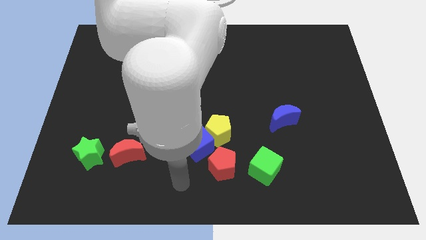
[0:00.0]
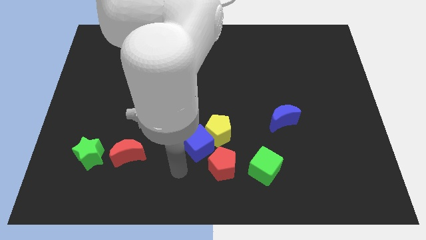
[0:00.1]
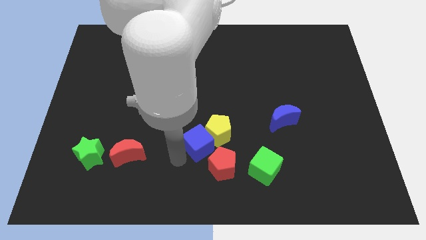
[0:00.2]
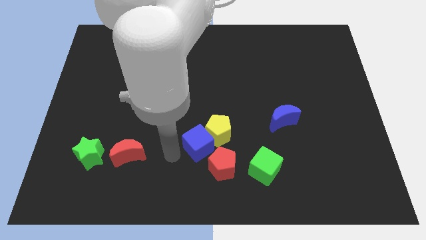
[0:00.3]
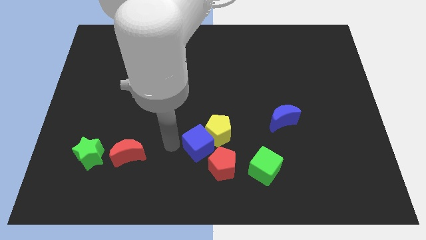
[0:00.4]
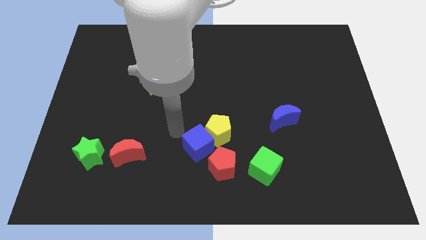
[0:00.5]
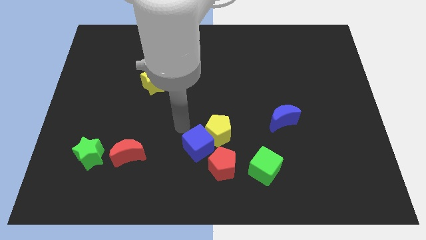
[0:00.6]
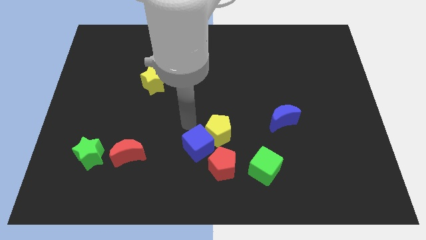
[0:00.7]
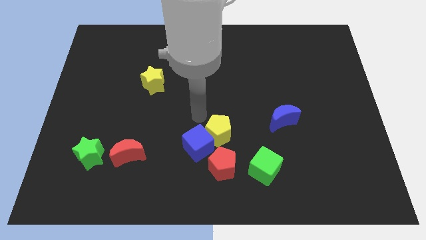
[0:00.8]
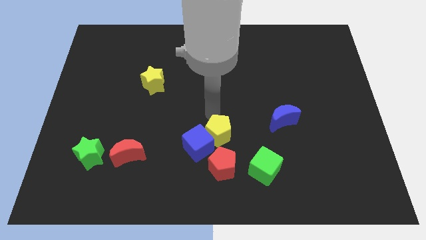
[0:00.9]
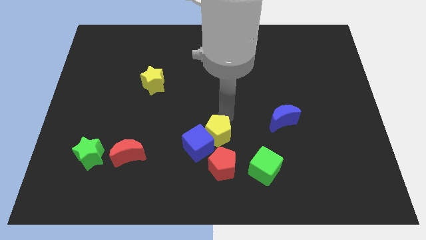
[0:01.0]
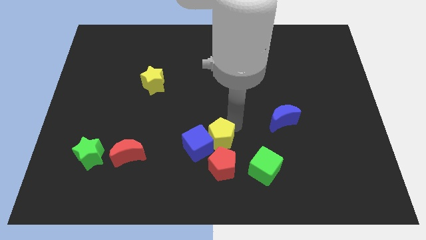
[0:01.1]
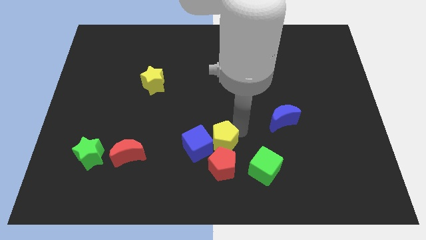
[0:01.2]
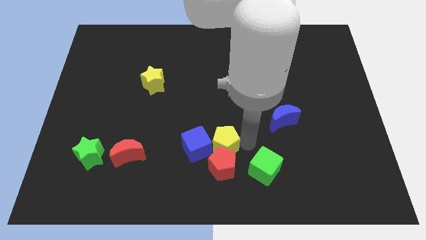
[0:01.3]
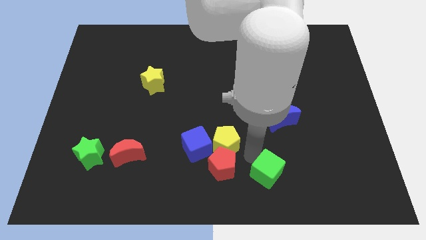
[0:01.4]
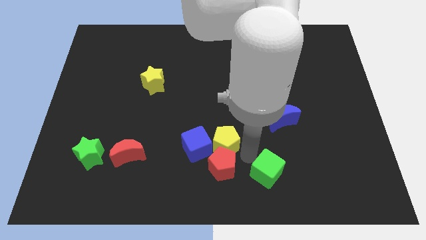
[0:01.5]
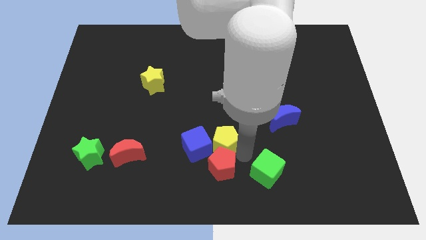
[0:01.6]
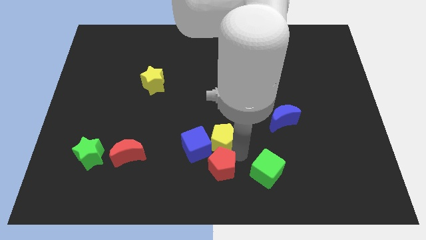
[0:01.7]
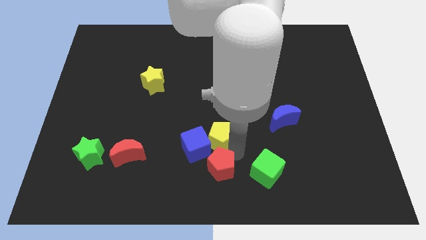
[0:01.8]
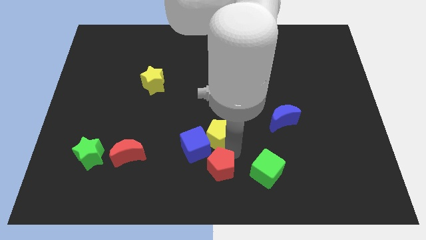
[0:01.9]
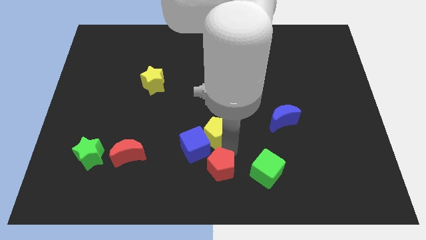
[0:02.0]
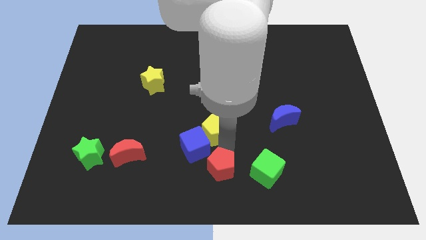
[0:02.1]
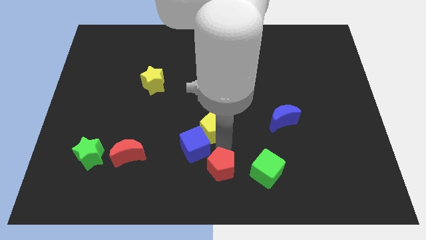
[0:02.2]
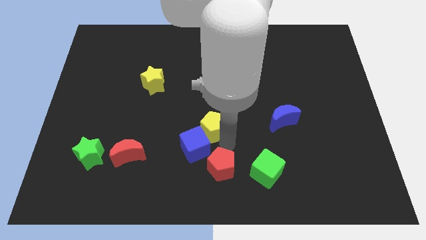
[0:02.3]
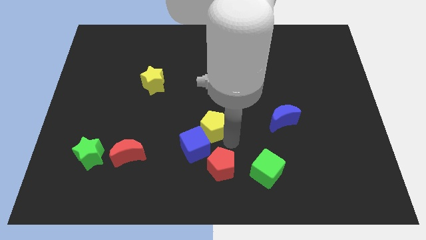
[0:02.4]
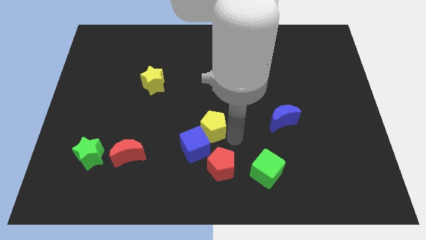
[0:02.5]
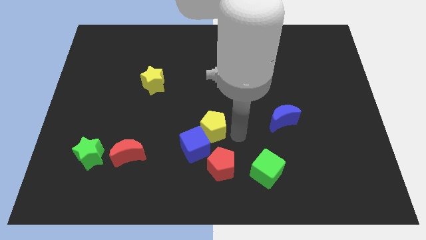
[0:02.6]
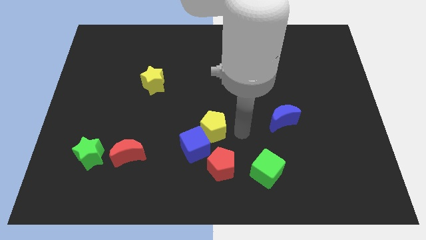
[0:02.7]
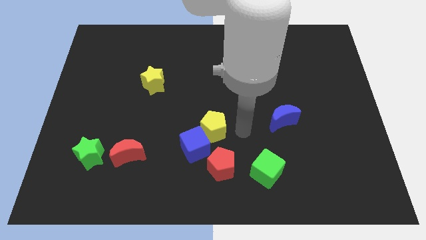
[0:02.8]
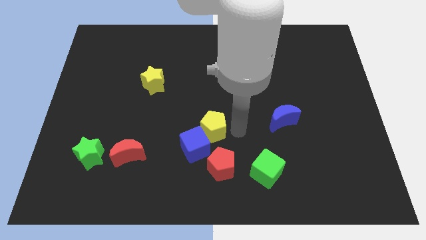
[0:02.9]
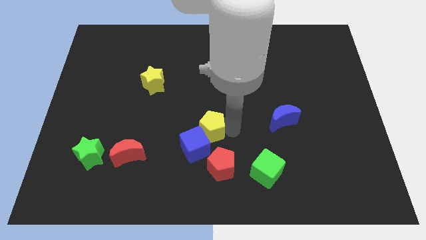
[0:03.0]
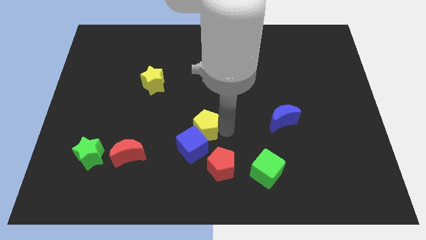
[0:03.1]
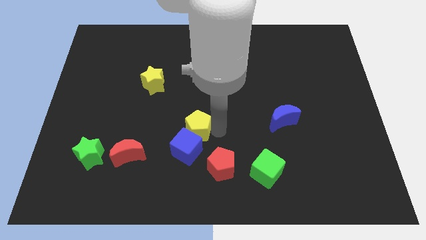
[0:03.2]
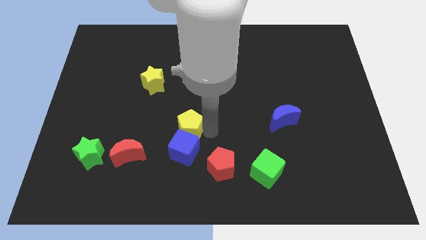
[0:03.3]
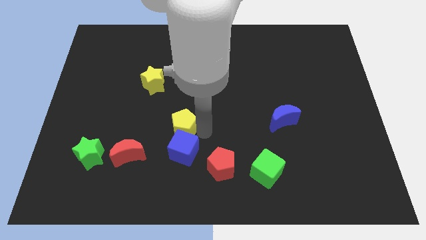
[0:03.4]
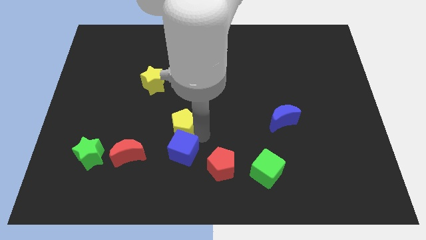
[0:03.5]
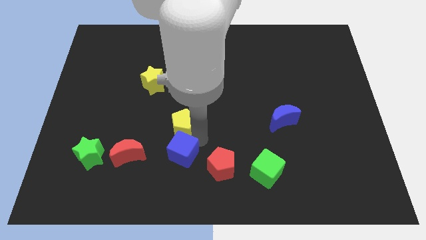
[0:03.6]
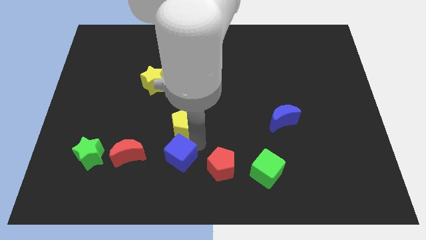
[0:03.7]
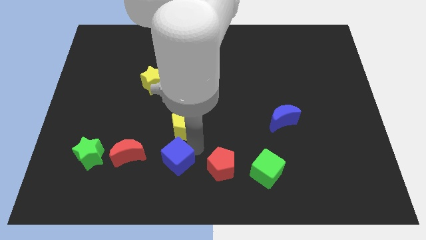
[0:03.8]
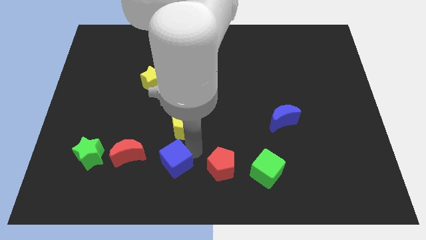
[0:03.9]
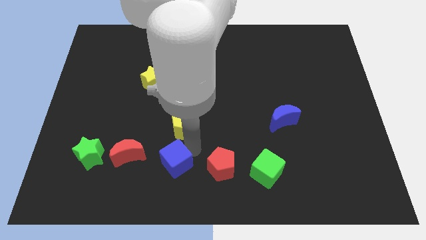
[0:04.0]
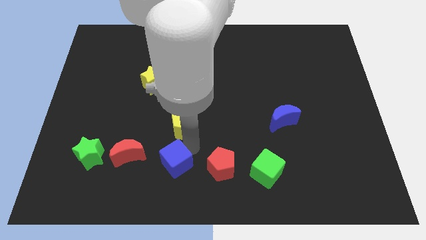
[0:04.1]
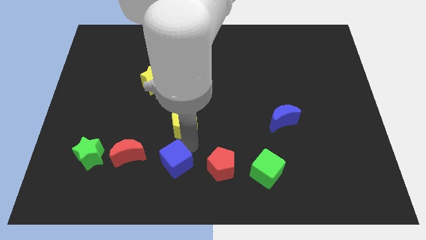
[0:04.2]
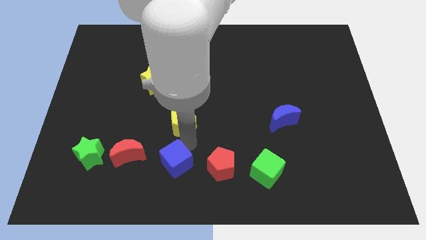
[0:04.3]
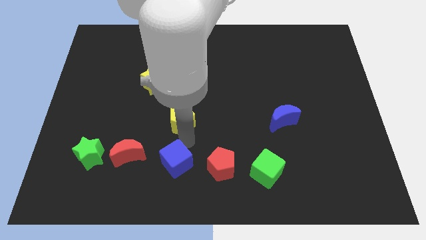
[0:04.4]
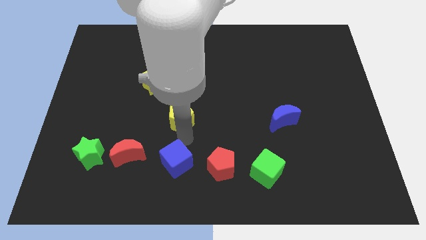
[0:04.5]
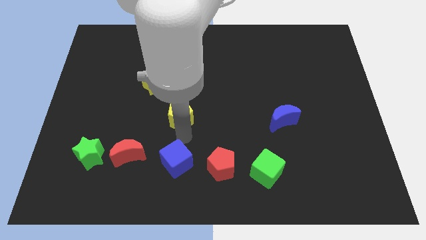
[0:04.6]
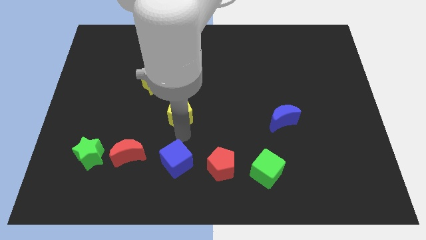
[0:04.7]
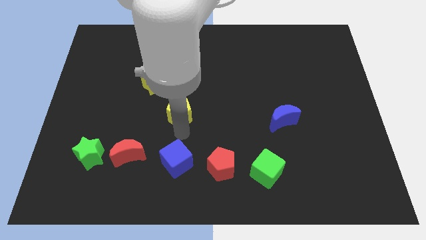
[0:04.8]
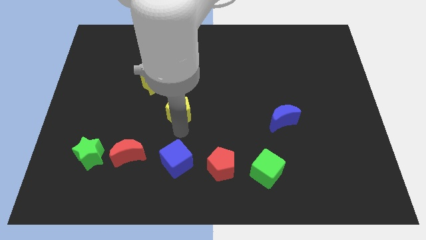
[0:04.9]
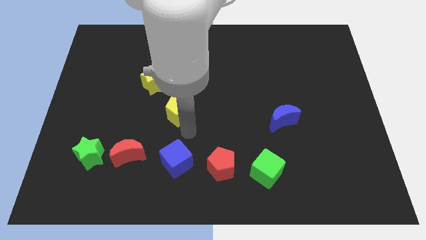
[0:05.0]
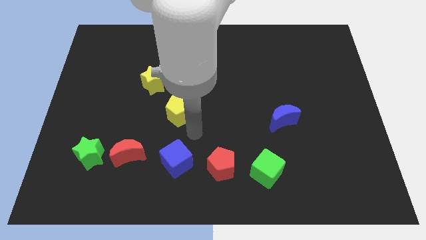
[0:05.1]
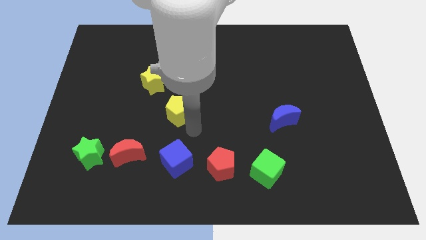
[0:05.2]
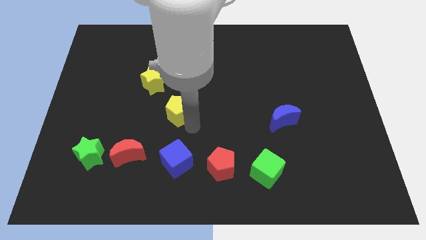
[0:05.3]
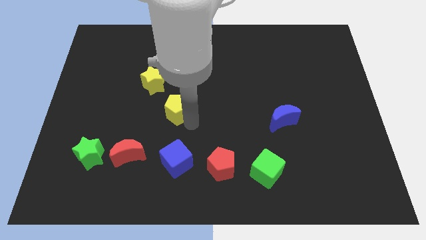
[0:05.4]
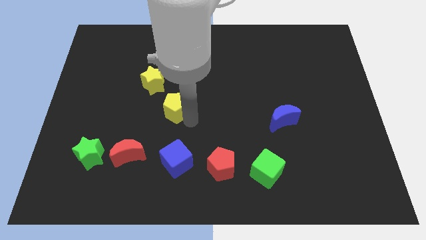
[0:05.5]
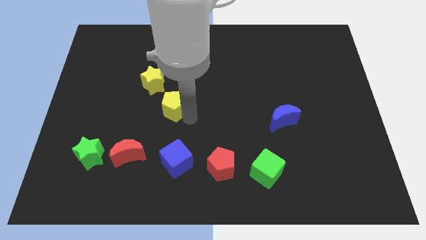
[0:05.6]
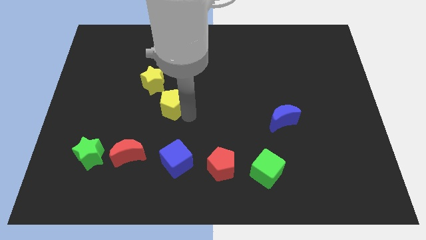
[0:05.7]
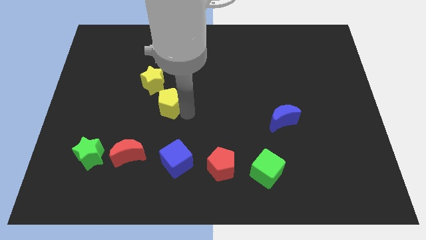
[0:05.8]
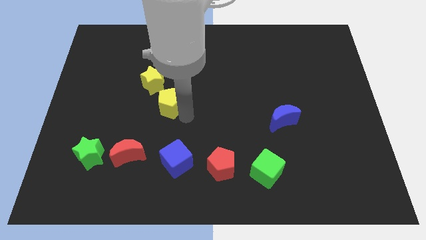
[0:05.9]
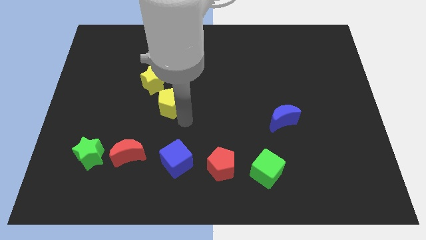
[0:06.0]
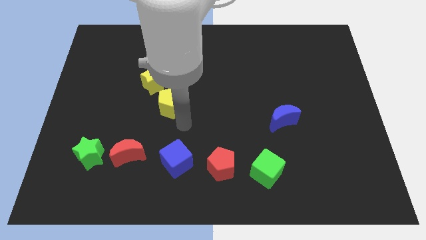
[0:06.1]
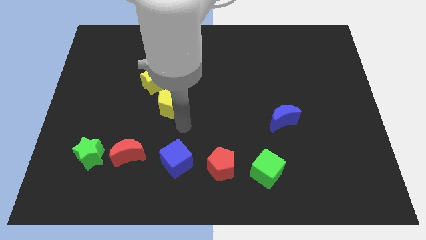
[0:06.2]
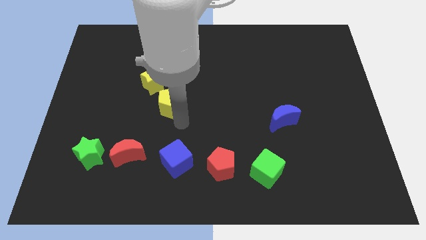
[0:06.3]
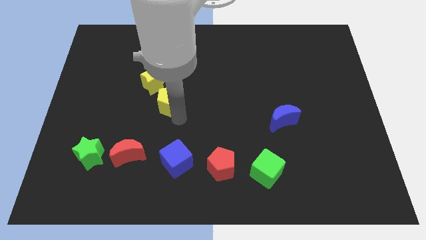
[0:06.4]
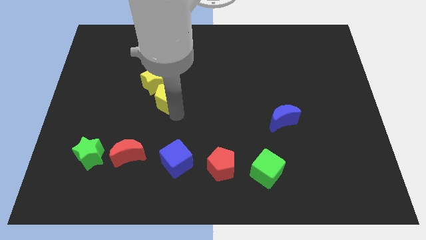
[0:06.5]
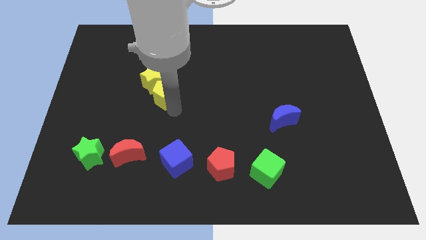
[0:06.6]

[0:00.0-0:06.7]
slide the yellow pentagon towards the yellow star

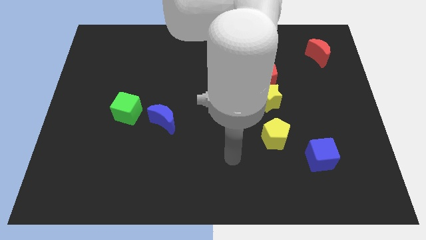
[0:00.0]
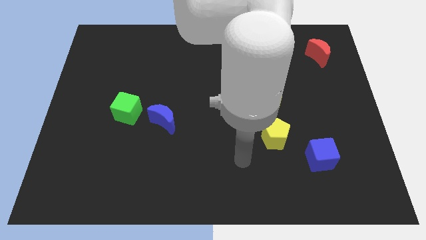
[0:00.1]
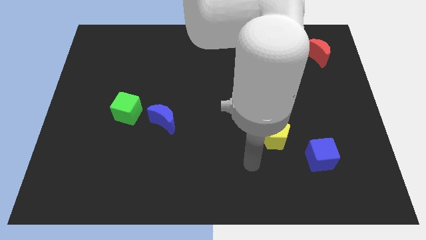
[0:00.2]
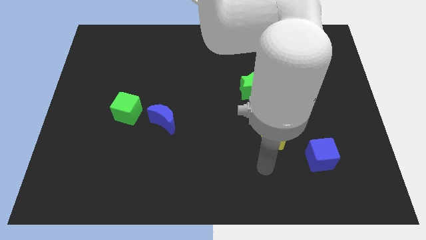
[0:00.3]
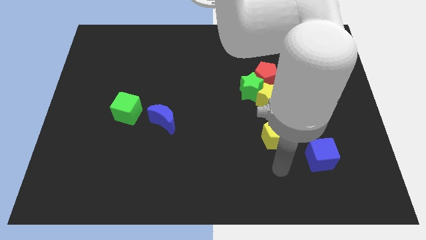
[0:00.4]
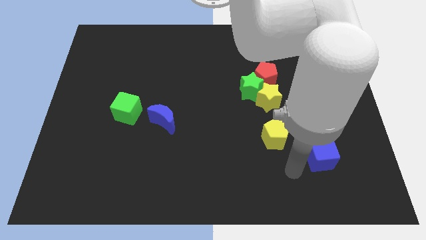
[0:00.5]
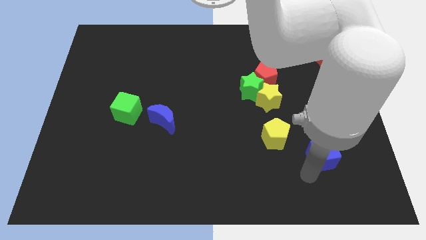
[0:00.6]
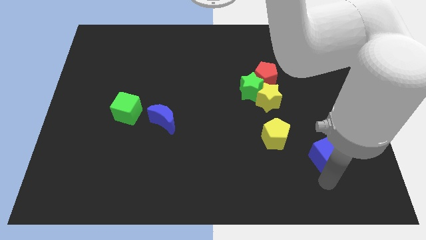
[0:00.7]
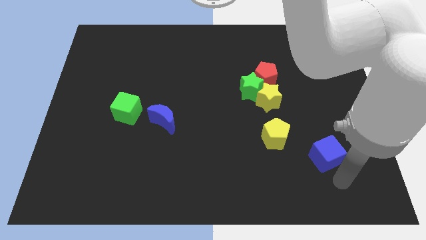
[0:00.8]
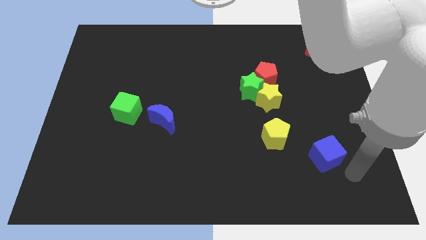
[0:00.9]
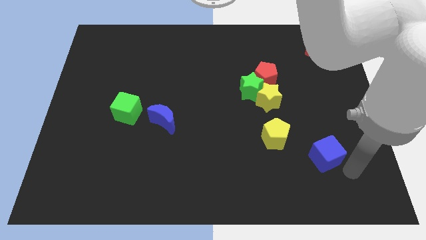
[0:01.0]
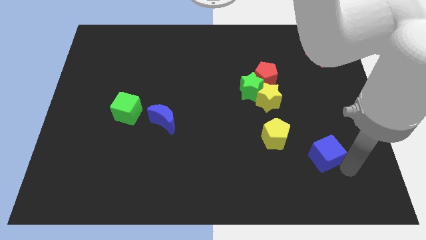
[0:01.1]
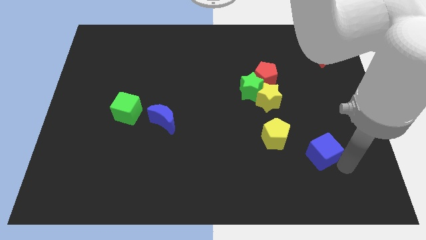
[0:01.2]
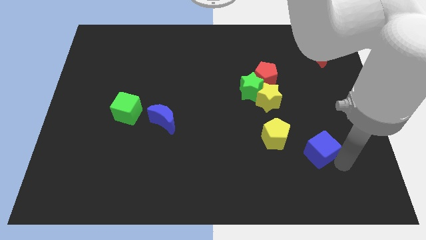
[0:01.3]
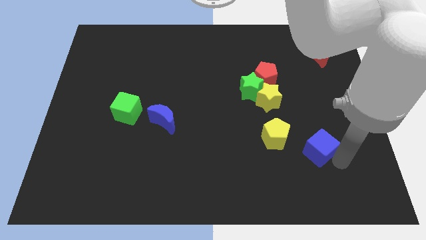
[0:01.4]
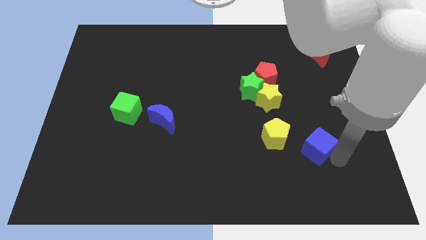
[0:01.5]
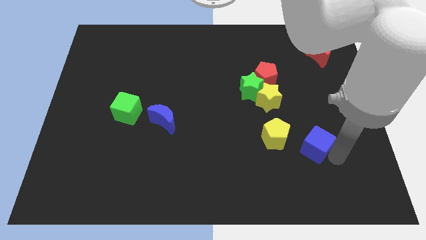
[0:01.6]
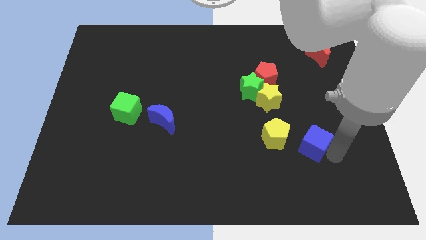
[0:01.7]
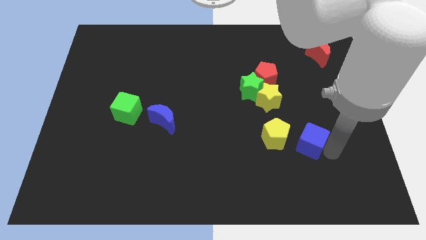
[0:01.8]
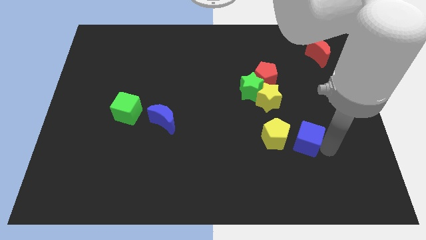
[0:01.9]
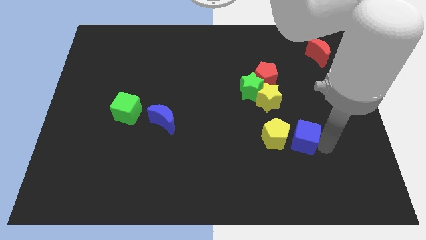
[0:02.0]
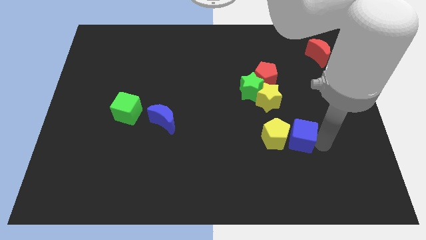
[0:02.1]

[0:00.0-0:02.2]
push the blue cube close to the yellow pentagon
